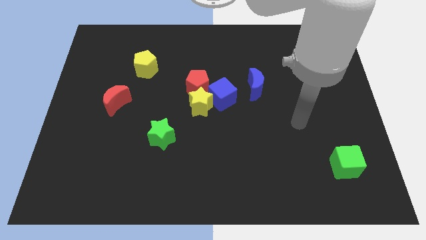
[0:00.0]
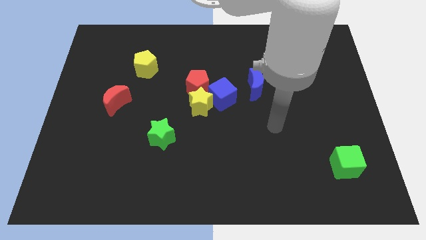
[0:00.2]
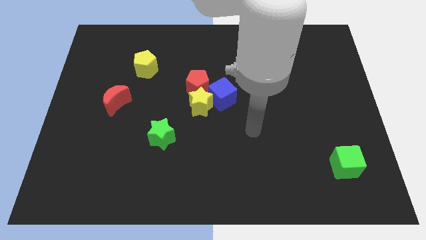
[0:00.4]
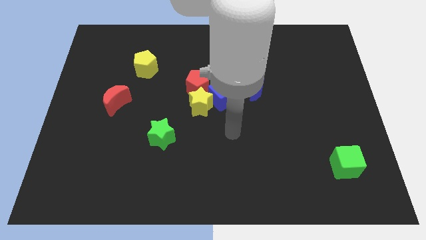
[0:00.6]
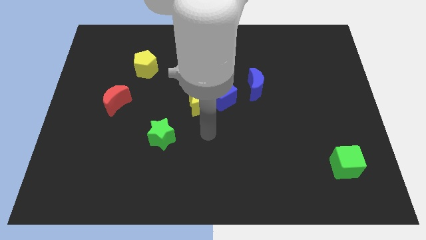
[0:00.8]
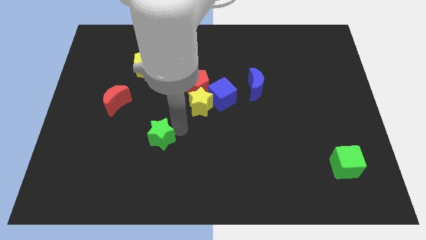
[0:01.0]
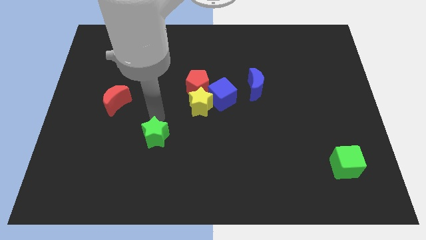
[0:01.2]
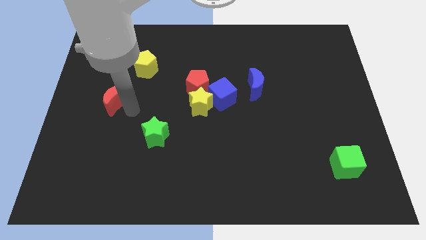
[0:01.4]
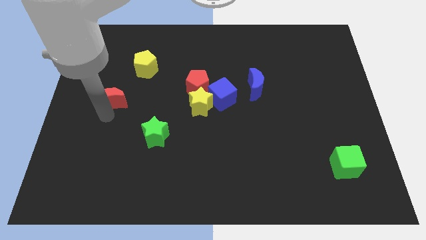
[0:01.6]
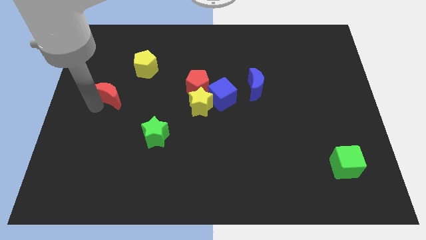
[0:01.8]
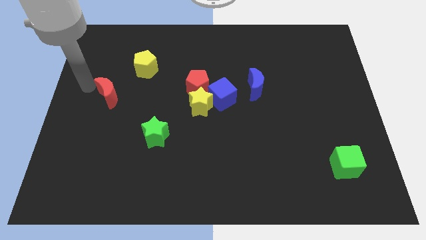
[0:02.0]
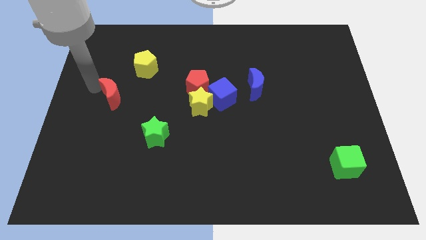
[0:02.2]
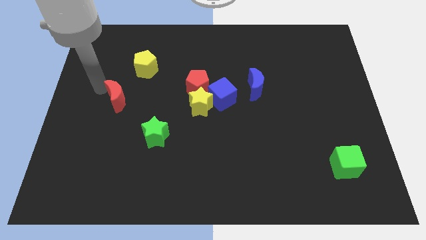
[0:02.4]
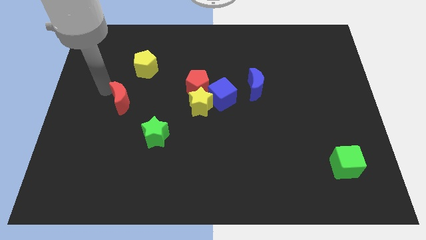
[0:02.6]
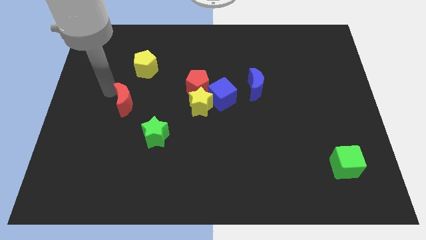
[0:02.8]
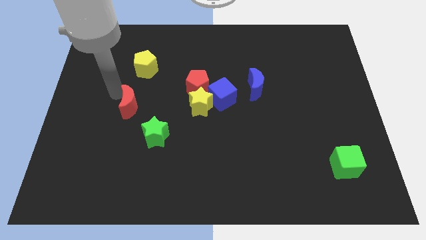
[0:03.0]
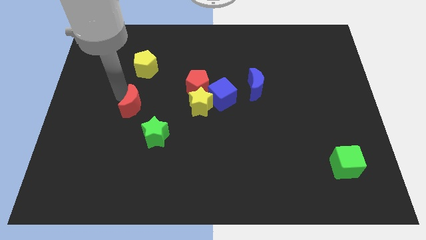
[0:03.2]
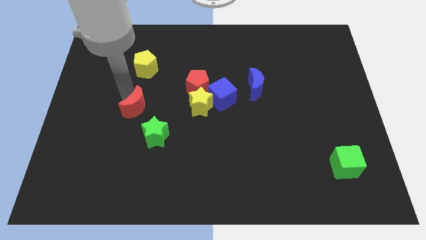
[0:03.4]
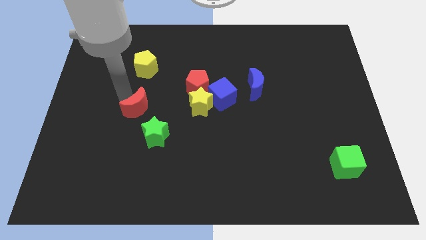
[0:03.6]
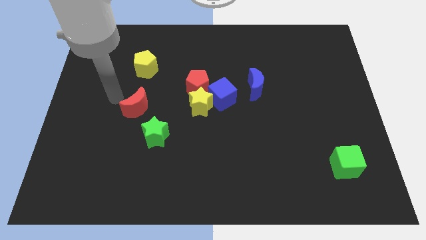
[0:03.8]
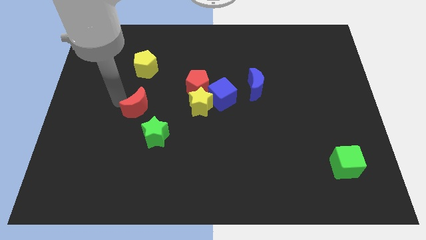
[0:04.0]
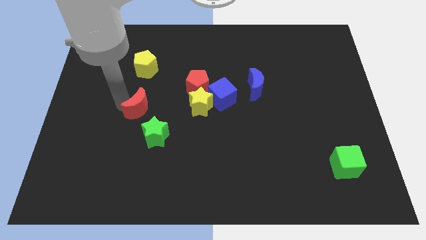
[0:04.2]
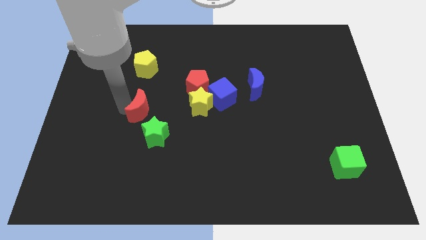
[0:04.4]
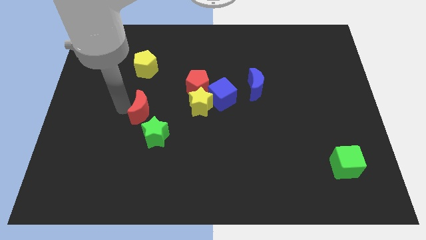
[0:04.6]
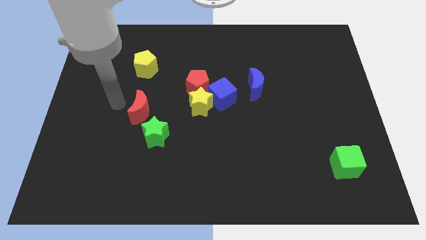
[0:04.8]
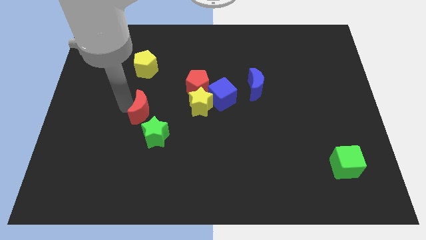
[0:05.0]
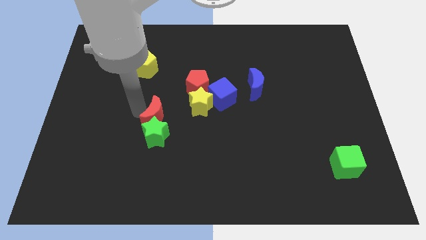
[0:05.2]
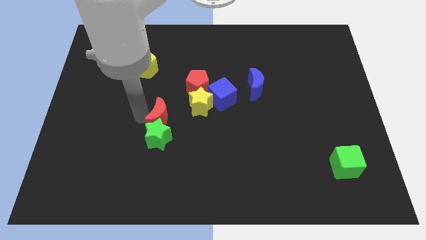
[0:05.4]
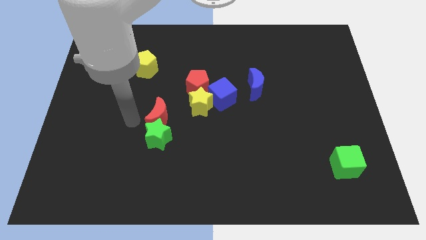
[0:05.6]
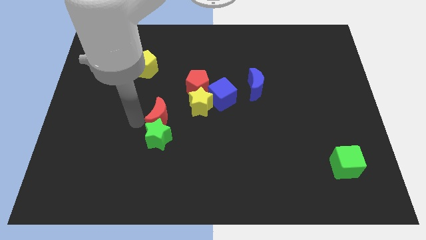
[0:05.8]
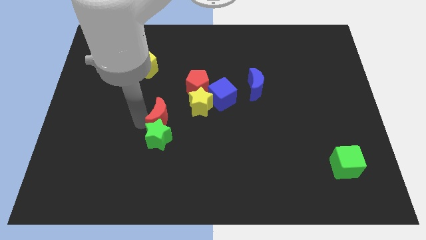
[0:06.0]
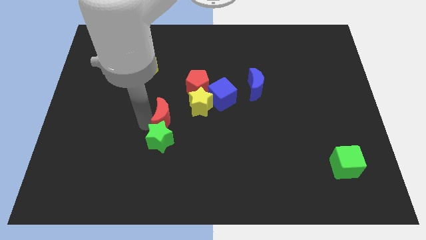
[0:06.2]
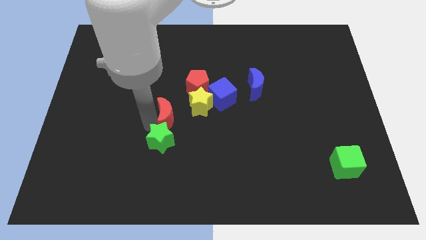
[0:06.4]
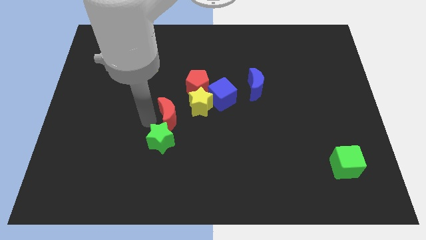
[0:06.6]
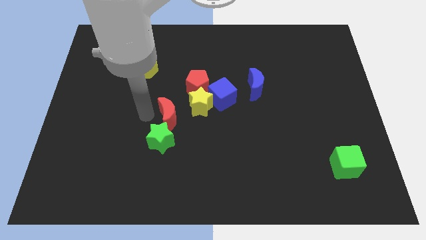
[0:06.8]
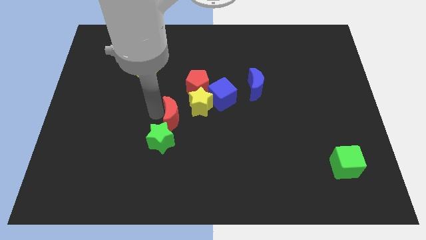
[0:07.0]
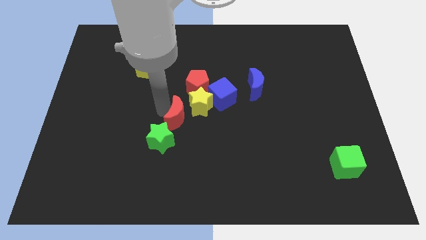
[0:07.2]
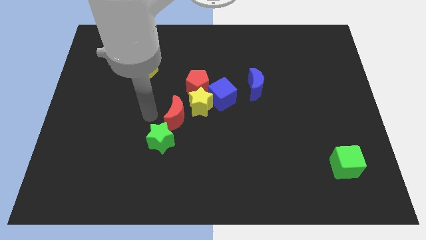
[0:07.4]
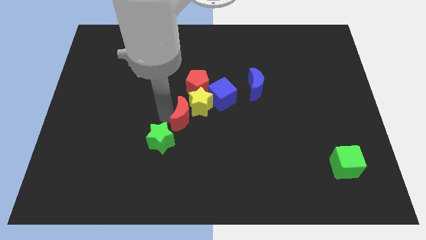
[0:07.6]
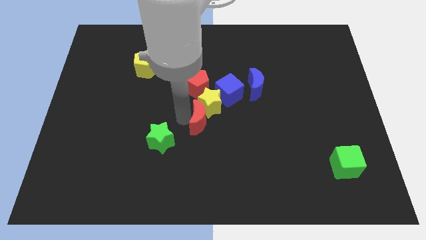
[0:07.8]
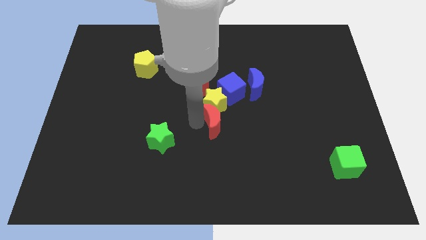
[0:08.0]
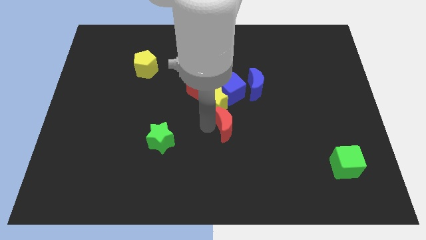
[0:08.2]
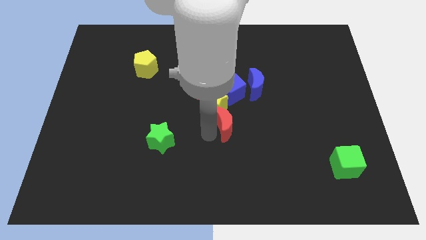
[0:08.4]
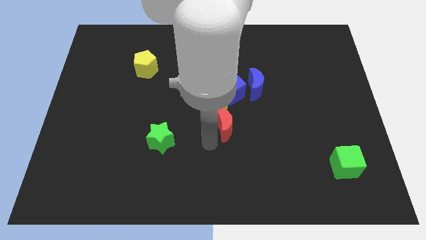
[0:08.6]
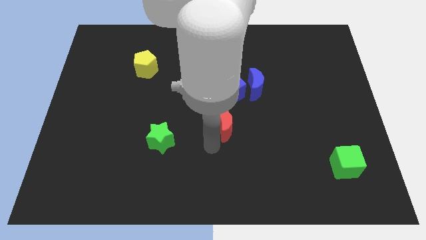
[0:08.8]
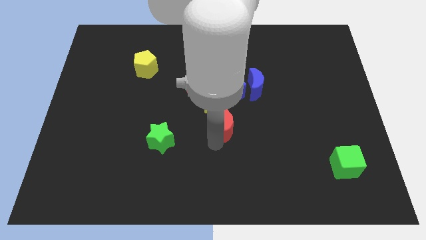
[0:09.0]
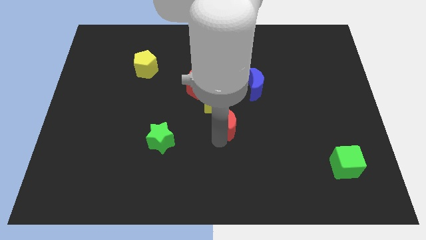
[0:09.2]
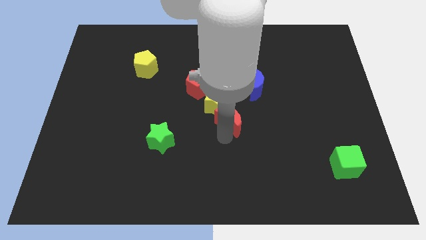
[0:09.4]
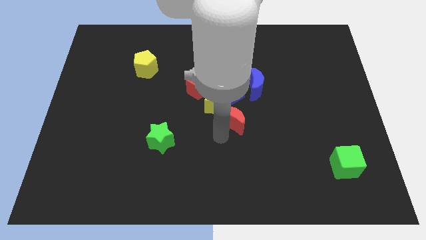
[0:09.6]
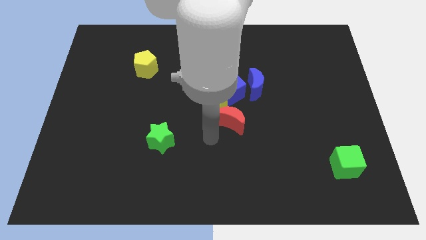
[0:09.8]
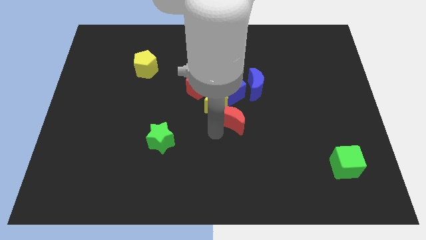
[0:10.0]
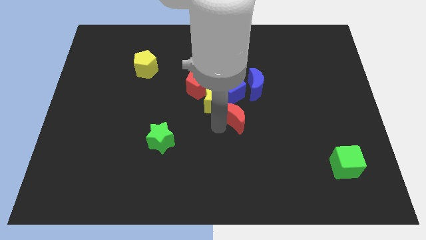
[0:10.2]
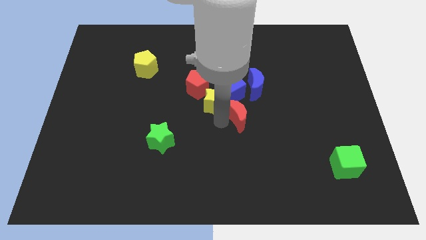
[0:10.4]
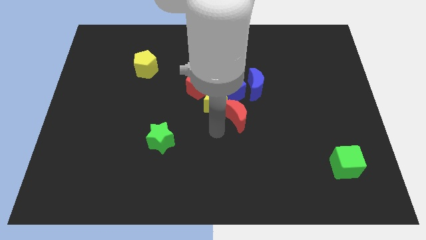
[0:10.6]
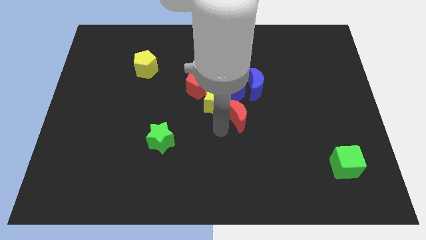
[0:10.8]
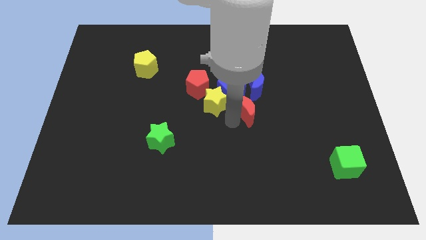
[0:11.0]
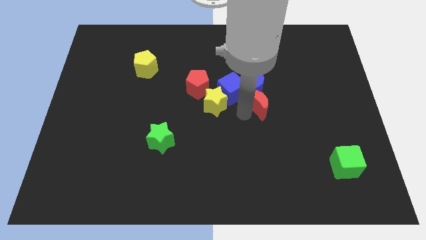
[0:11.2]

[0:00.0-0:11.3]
slide the red moon right of the blue cube
